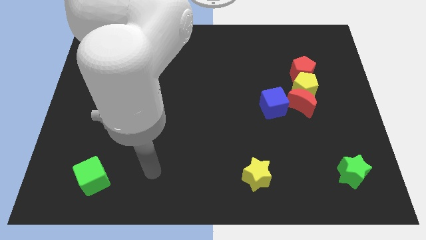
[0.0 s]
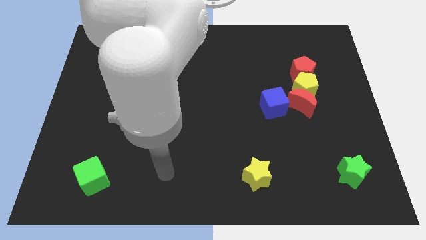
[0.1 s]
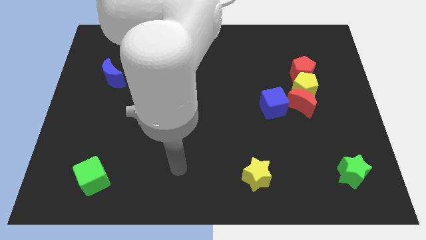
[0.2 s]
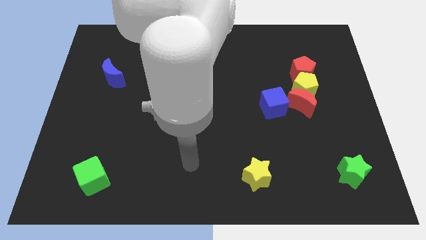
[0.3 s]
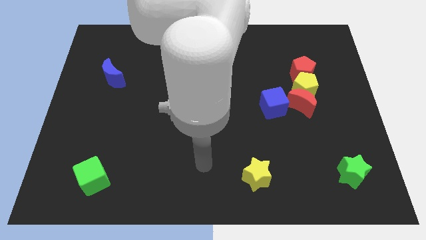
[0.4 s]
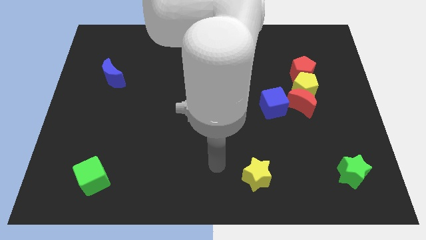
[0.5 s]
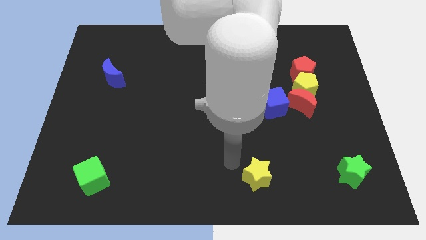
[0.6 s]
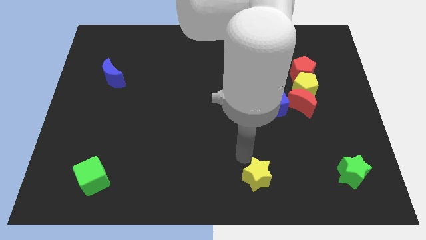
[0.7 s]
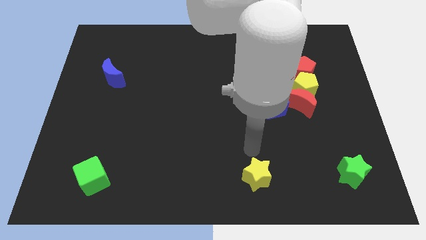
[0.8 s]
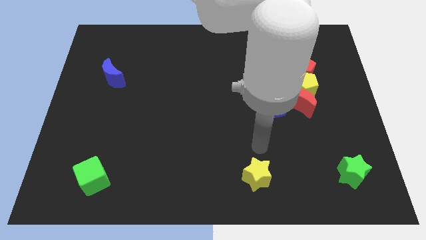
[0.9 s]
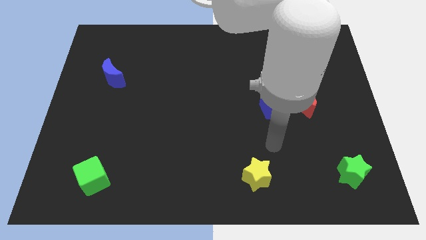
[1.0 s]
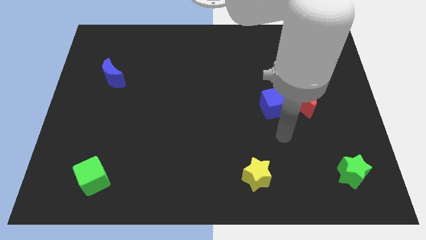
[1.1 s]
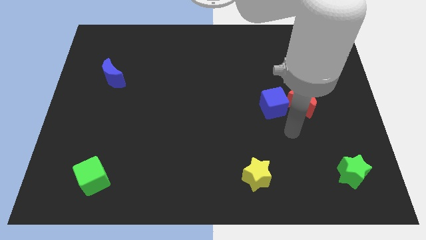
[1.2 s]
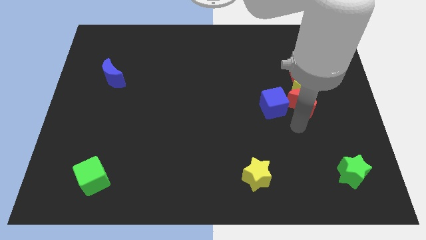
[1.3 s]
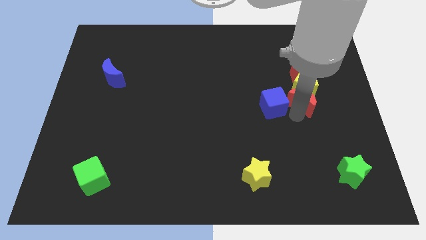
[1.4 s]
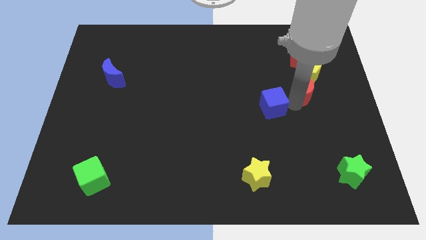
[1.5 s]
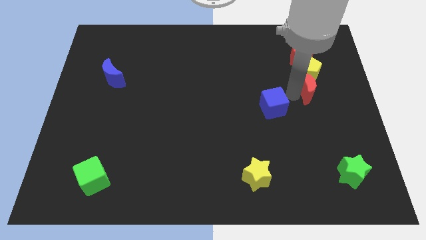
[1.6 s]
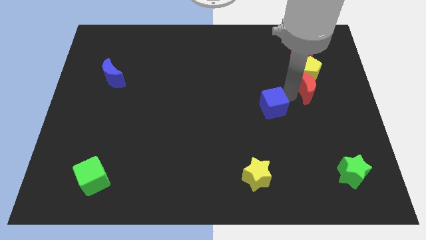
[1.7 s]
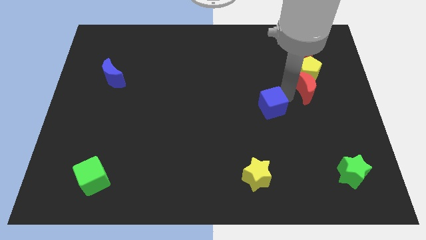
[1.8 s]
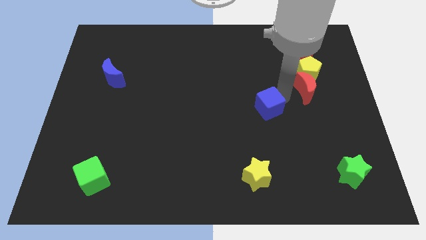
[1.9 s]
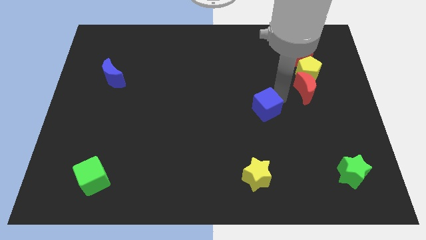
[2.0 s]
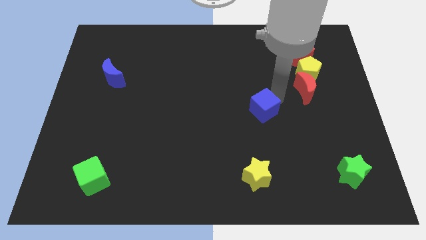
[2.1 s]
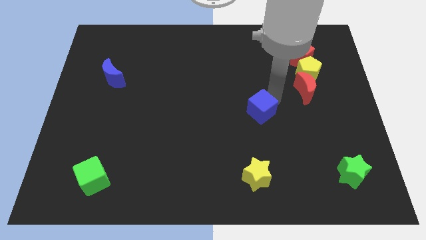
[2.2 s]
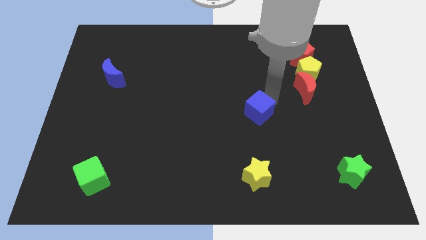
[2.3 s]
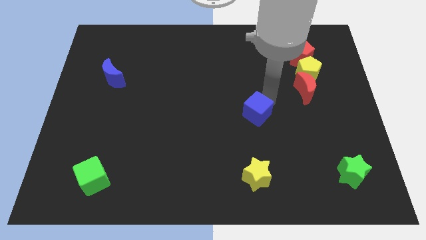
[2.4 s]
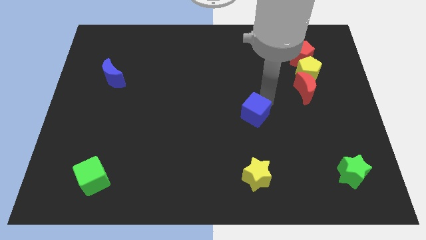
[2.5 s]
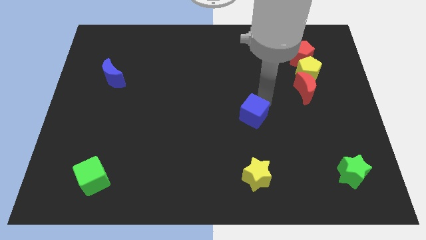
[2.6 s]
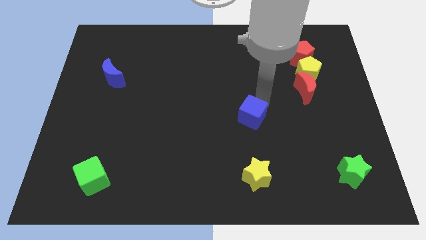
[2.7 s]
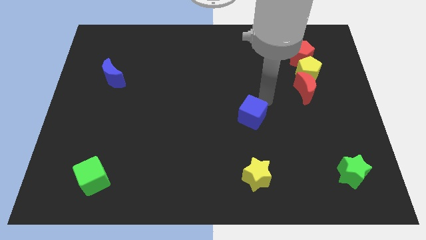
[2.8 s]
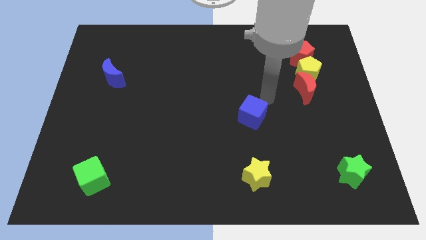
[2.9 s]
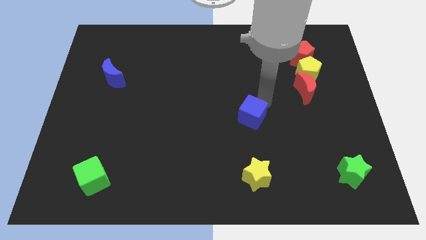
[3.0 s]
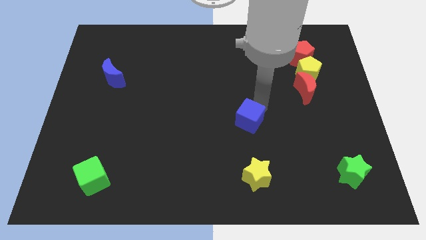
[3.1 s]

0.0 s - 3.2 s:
slightly slide the blue cube downwards and then to the left

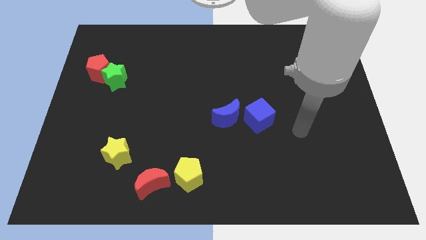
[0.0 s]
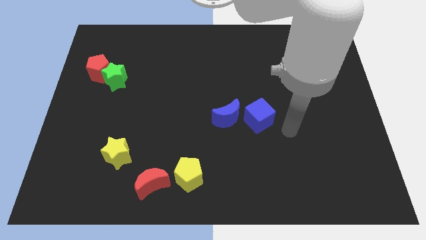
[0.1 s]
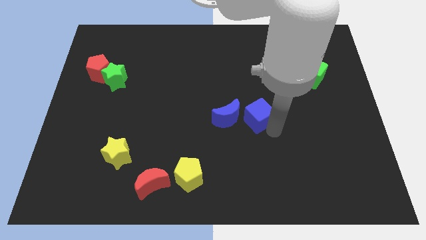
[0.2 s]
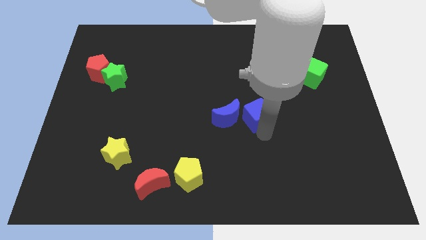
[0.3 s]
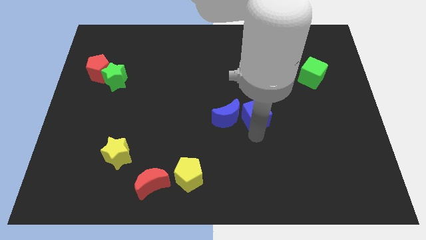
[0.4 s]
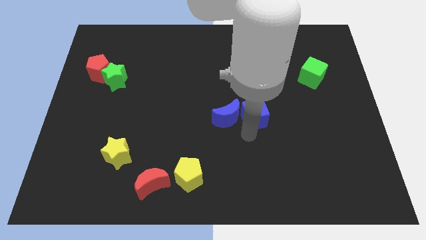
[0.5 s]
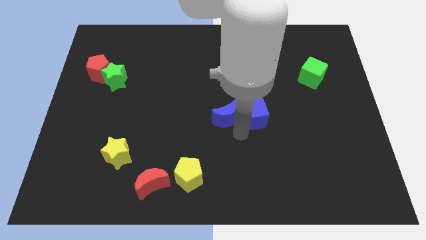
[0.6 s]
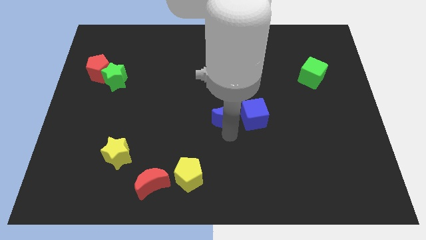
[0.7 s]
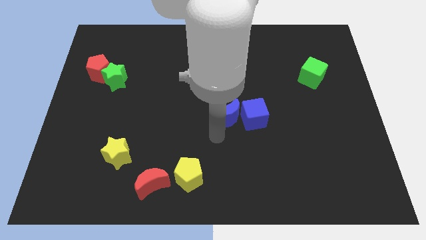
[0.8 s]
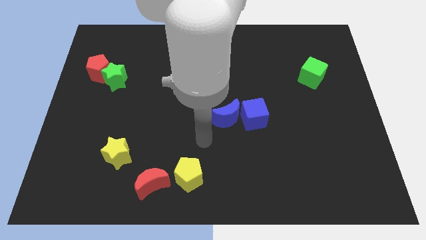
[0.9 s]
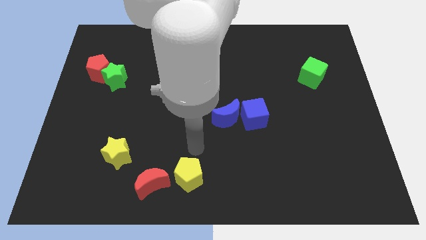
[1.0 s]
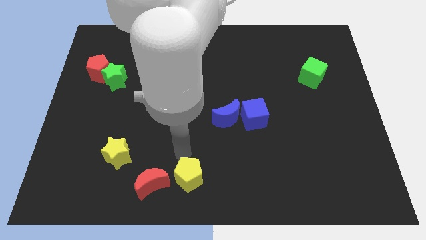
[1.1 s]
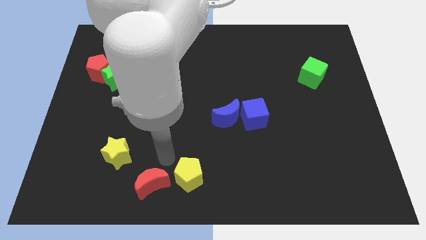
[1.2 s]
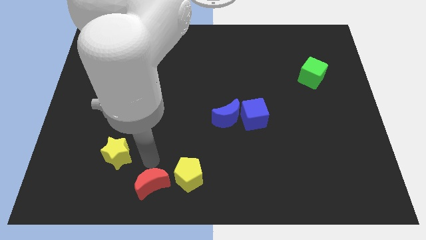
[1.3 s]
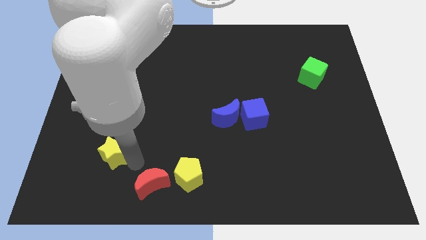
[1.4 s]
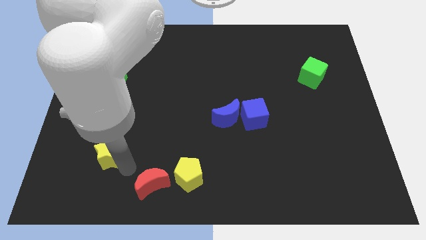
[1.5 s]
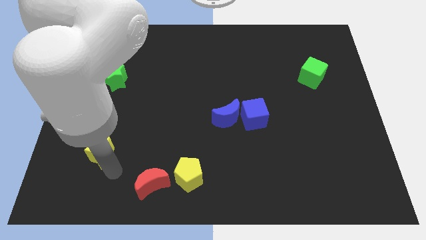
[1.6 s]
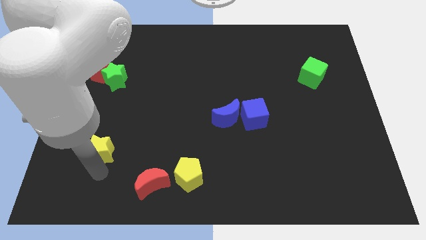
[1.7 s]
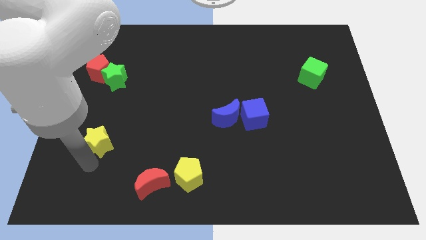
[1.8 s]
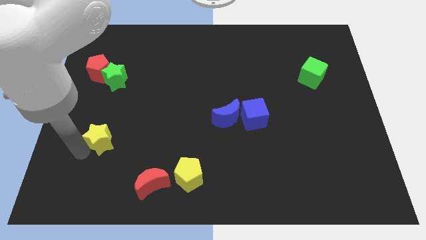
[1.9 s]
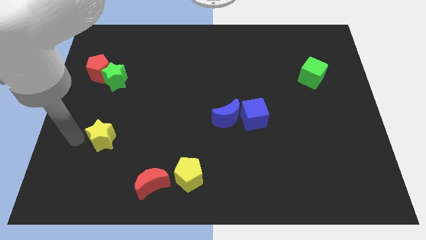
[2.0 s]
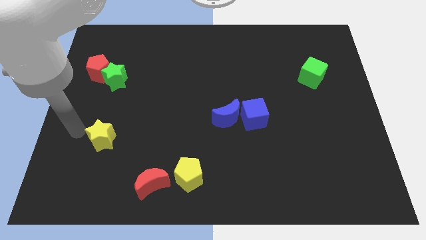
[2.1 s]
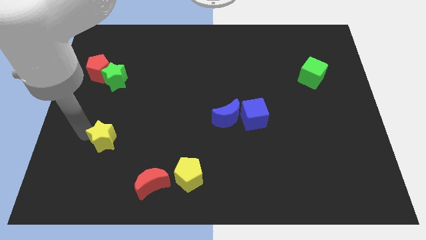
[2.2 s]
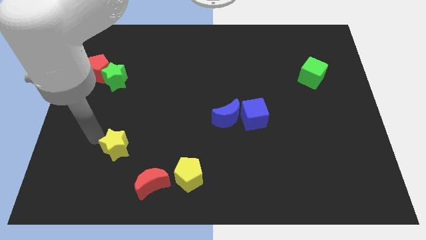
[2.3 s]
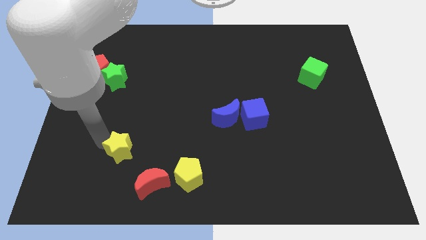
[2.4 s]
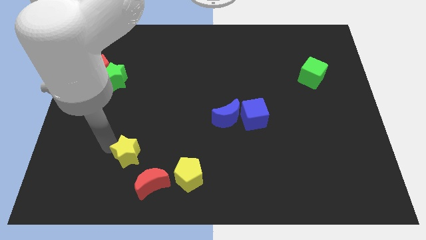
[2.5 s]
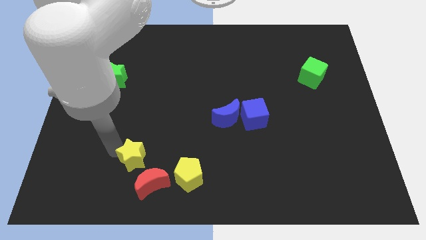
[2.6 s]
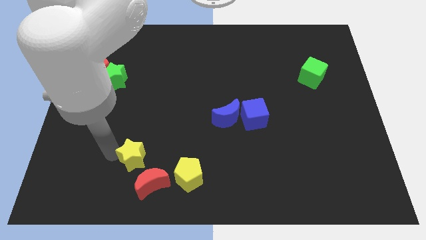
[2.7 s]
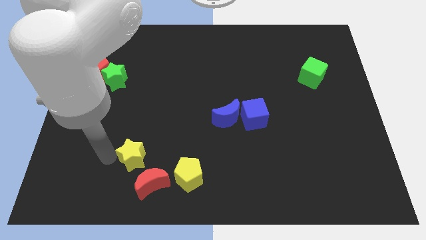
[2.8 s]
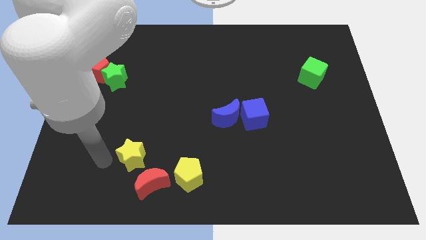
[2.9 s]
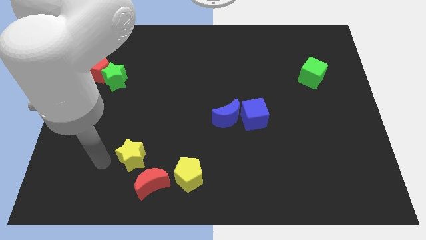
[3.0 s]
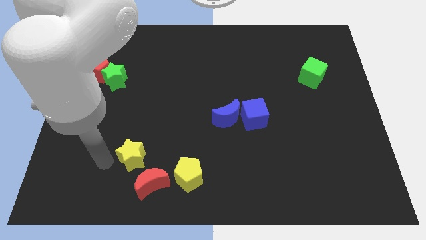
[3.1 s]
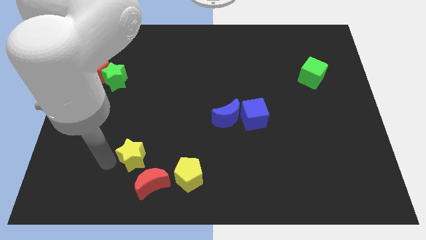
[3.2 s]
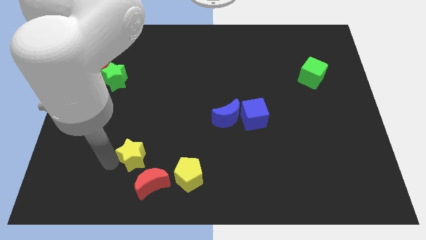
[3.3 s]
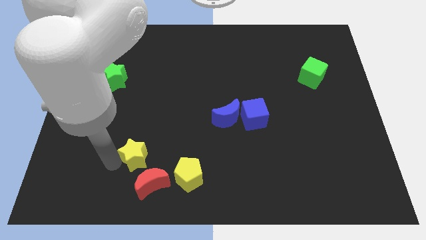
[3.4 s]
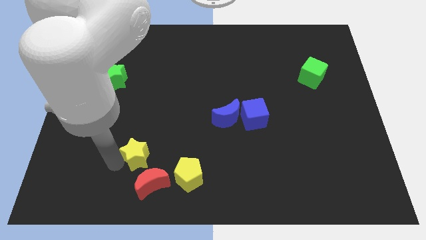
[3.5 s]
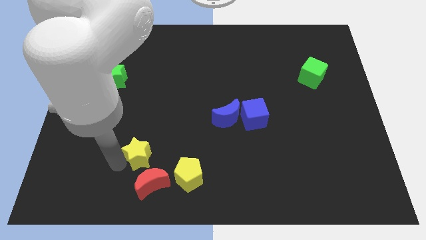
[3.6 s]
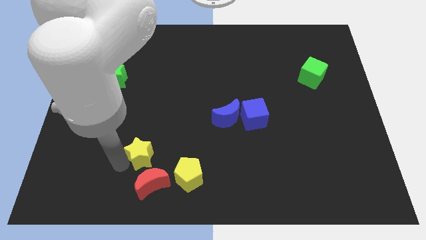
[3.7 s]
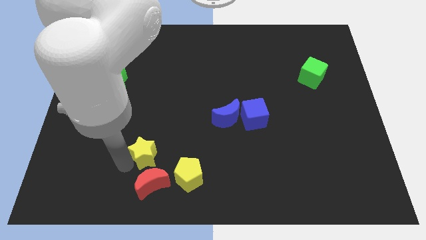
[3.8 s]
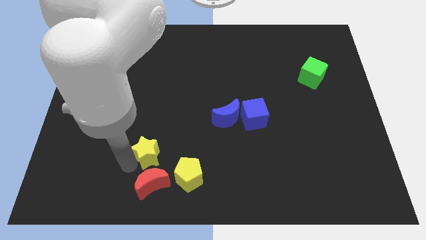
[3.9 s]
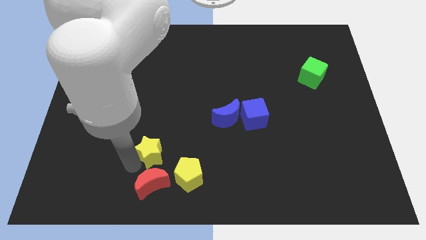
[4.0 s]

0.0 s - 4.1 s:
move the yellow star right a little bit

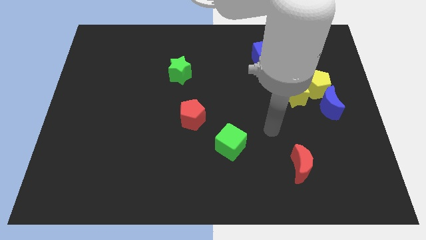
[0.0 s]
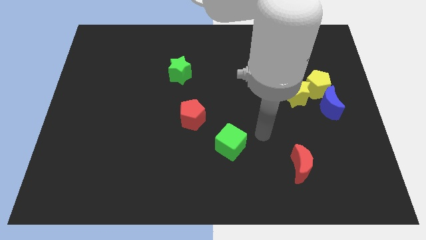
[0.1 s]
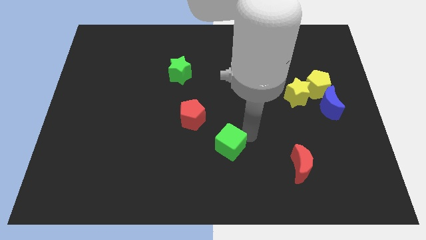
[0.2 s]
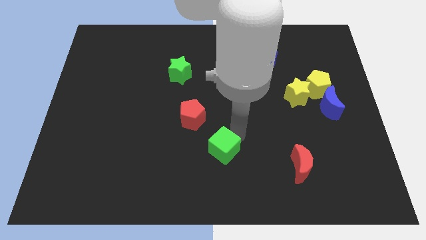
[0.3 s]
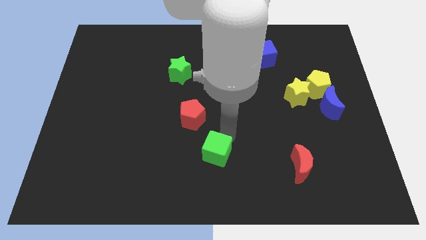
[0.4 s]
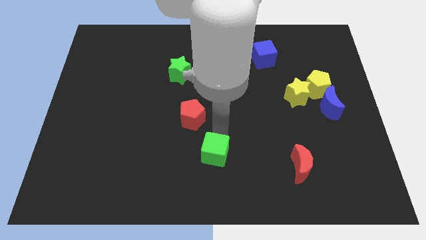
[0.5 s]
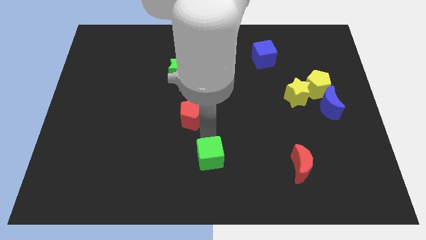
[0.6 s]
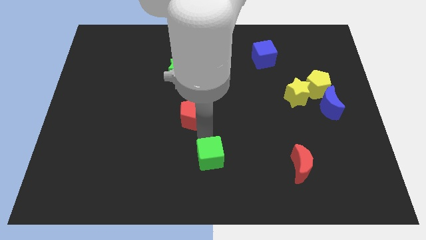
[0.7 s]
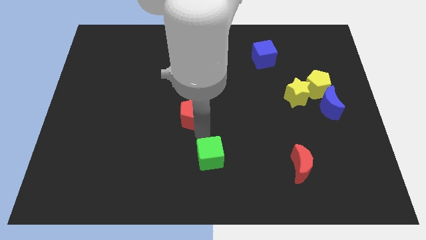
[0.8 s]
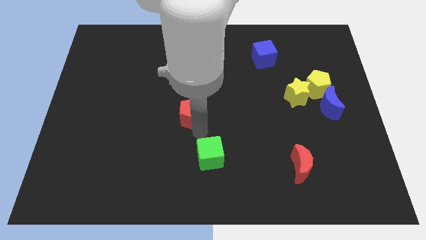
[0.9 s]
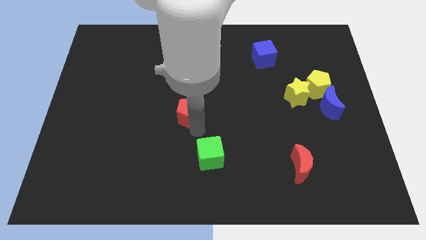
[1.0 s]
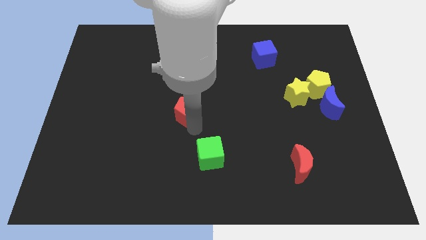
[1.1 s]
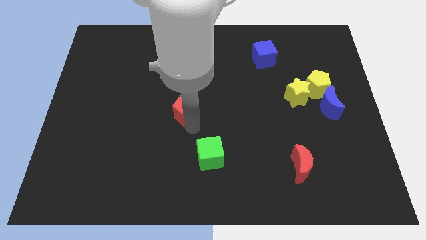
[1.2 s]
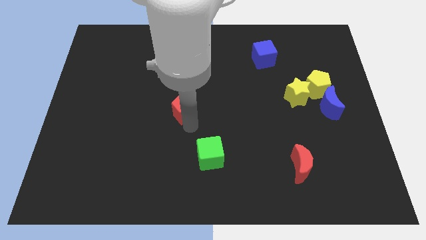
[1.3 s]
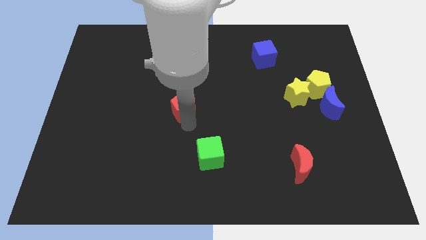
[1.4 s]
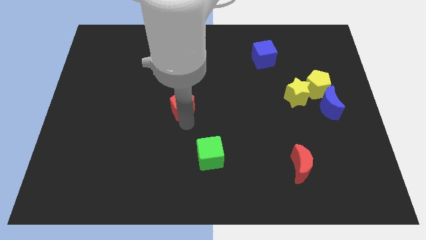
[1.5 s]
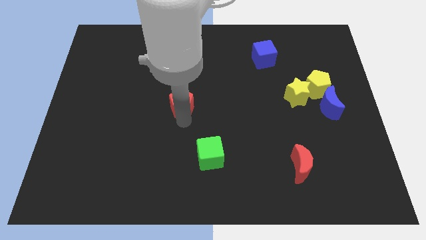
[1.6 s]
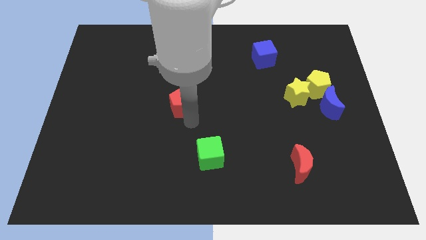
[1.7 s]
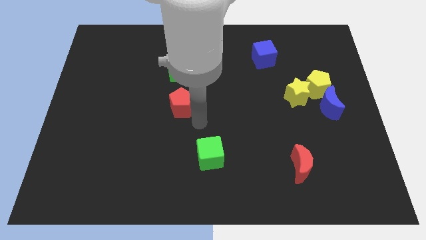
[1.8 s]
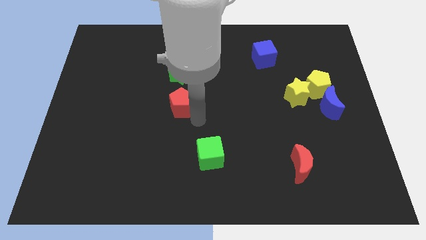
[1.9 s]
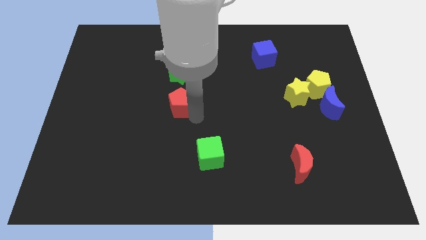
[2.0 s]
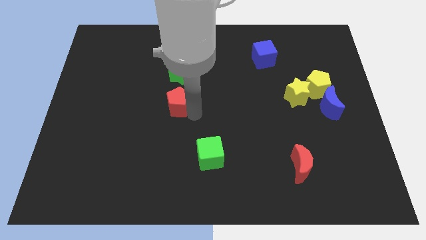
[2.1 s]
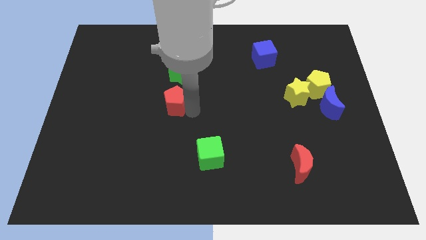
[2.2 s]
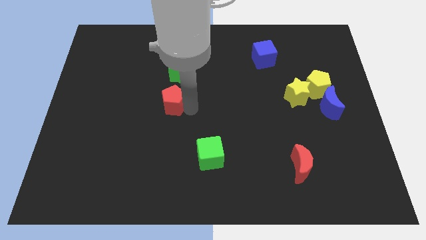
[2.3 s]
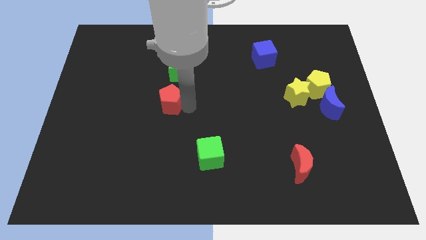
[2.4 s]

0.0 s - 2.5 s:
slightly push the red pentagon up and to the left diagonally
